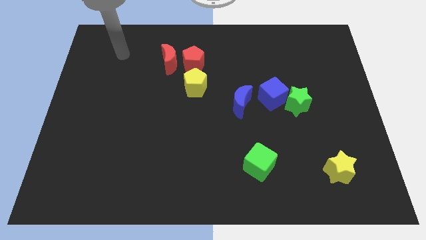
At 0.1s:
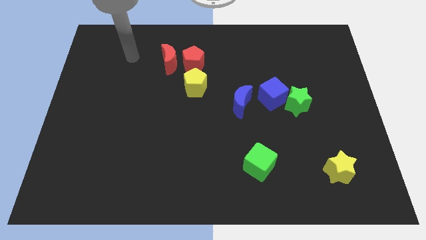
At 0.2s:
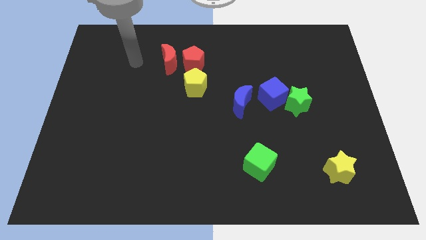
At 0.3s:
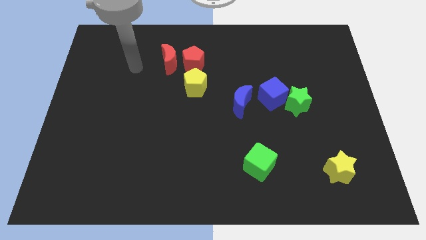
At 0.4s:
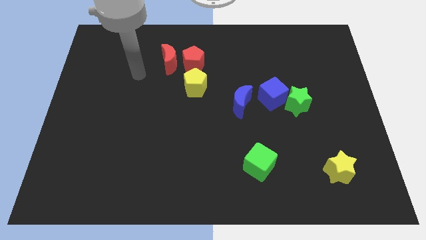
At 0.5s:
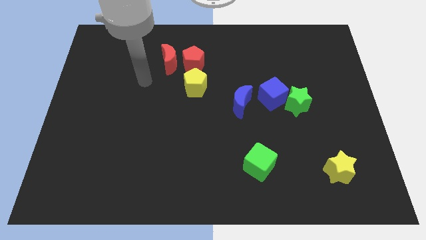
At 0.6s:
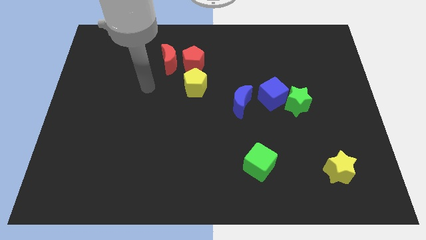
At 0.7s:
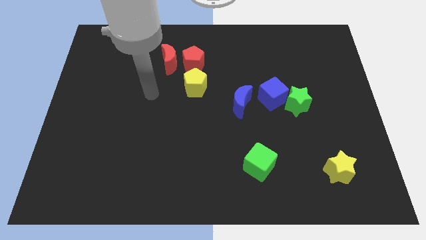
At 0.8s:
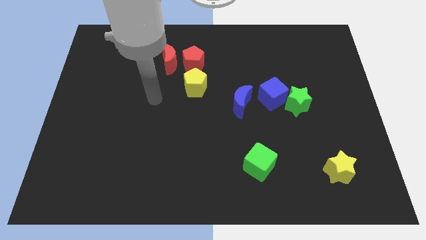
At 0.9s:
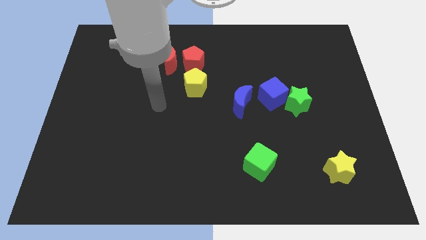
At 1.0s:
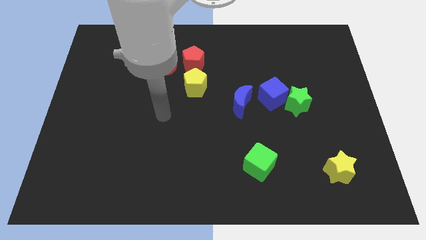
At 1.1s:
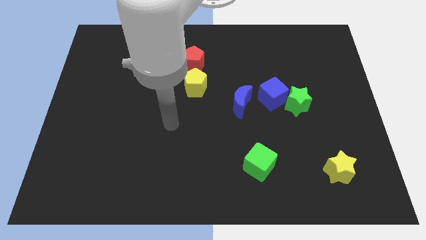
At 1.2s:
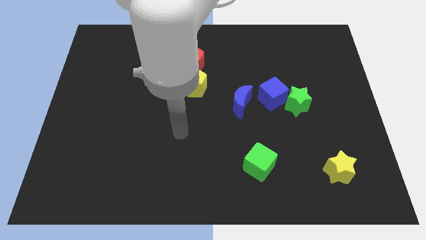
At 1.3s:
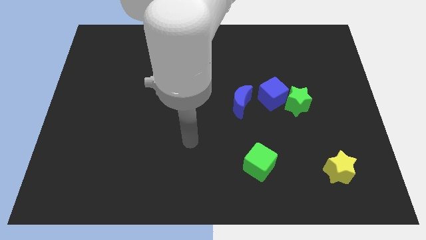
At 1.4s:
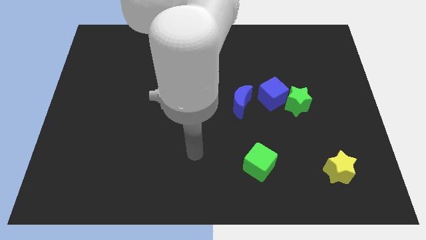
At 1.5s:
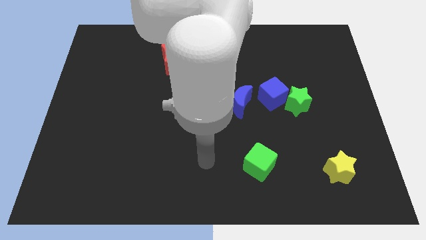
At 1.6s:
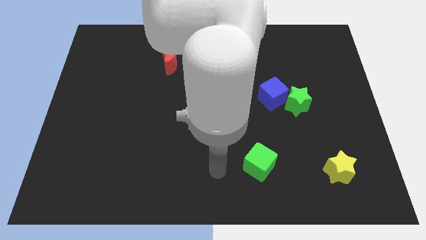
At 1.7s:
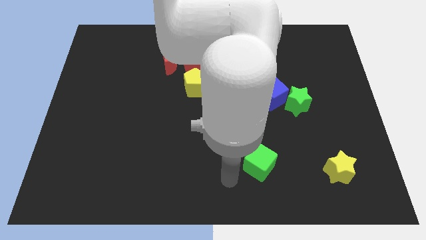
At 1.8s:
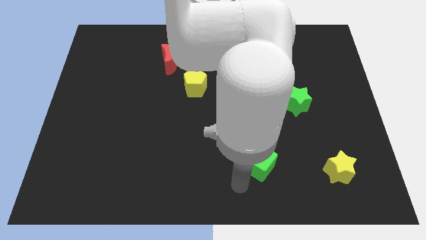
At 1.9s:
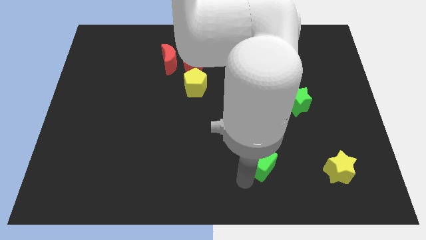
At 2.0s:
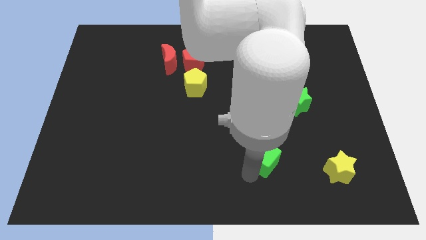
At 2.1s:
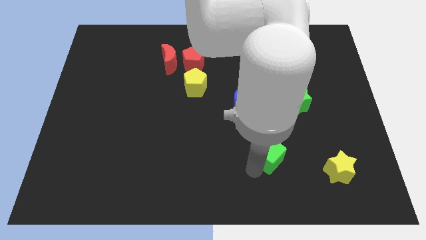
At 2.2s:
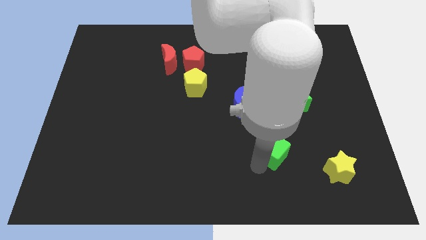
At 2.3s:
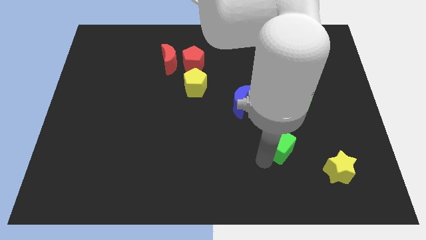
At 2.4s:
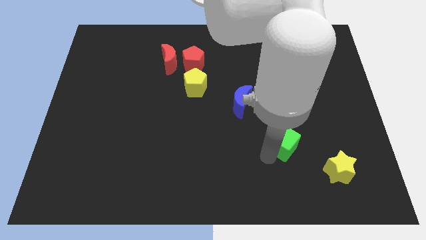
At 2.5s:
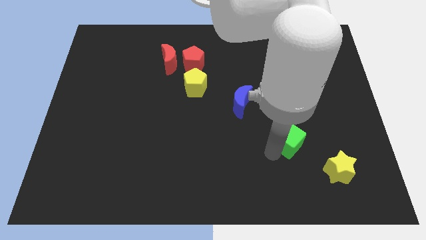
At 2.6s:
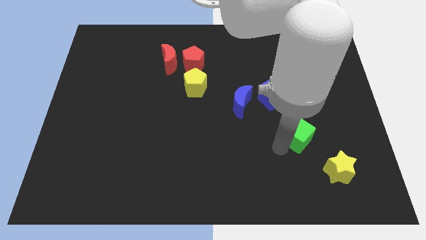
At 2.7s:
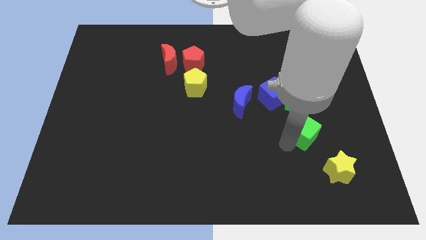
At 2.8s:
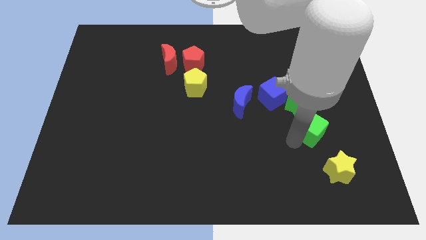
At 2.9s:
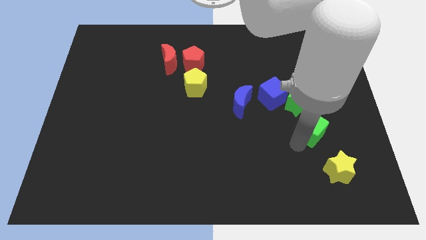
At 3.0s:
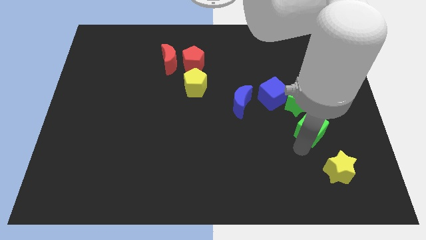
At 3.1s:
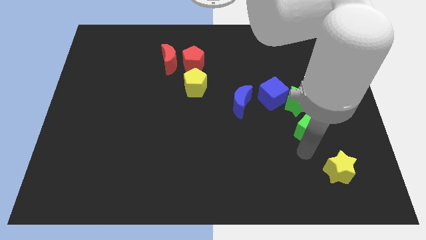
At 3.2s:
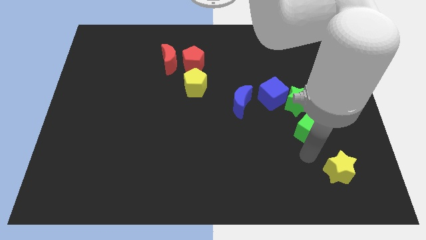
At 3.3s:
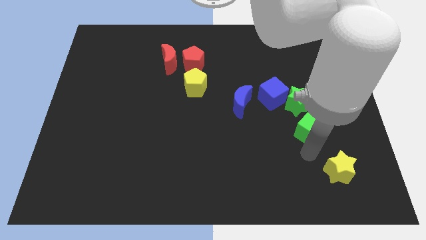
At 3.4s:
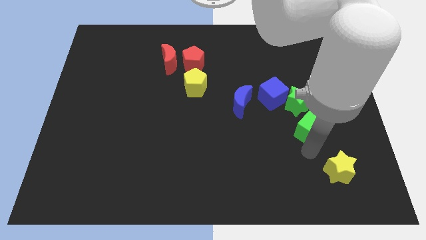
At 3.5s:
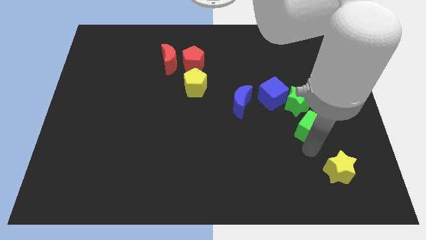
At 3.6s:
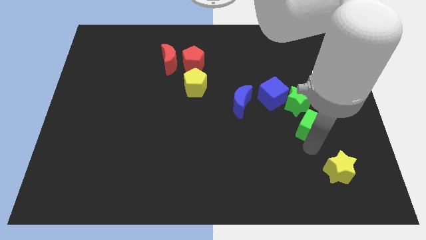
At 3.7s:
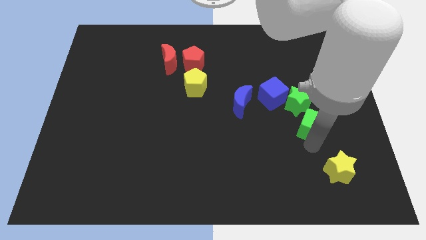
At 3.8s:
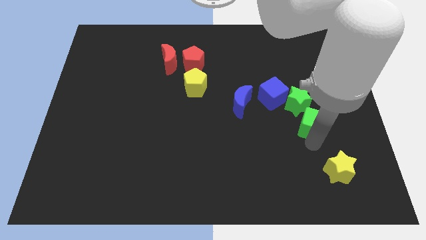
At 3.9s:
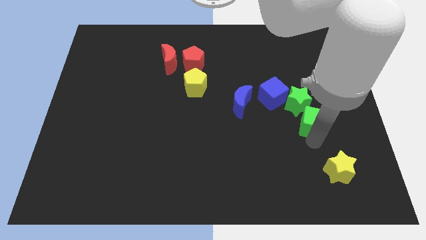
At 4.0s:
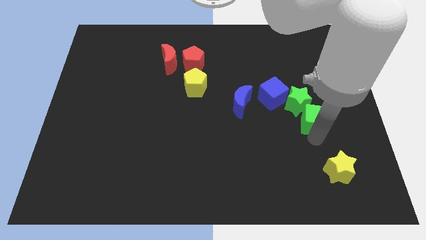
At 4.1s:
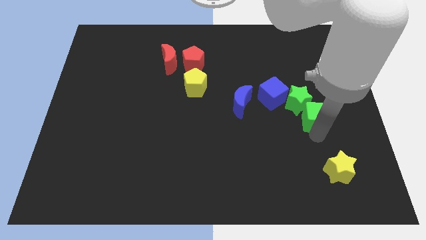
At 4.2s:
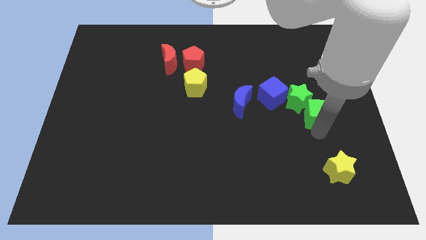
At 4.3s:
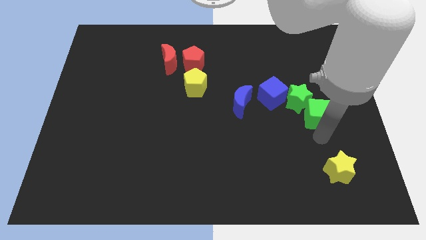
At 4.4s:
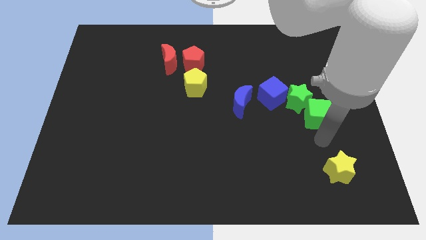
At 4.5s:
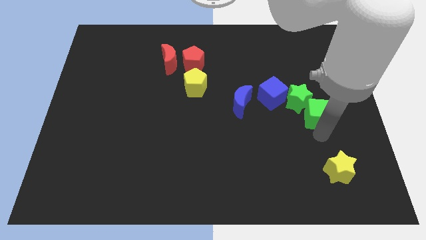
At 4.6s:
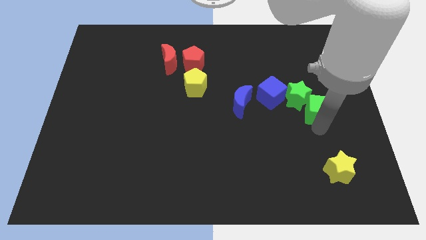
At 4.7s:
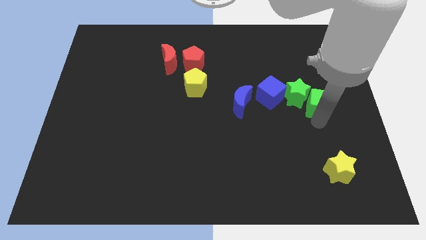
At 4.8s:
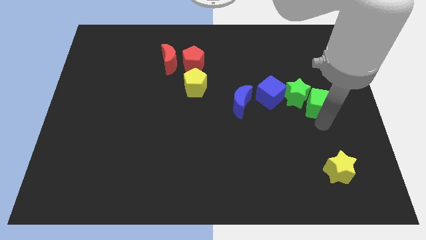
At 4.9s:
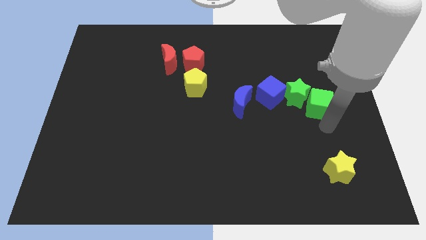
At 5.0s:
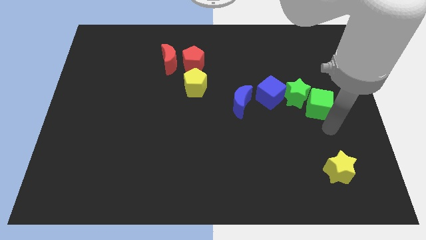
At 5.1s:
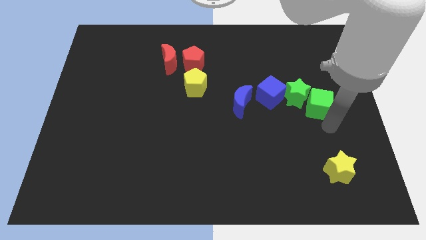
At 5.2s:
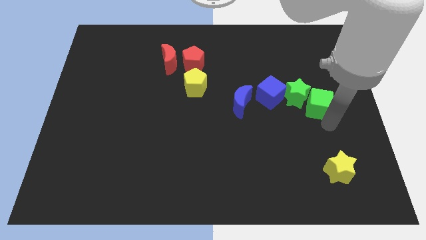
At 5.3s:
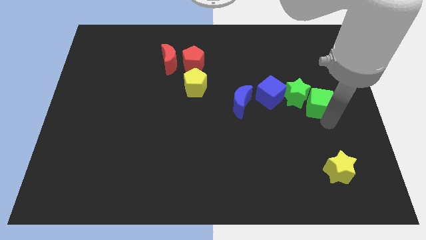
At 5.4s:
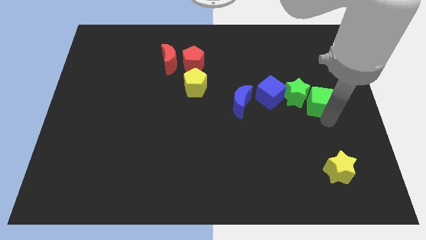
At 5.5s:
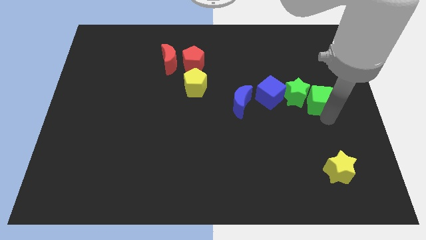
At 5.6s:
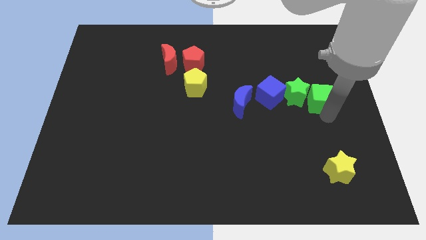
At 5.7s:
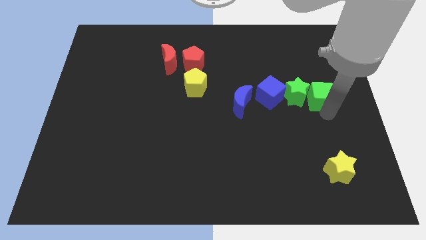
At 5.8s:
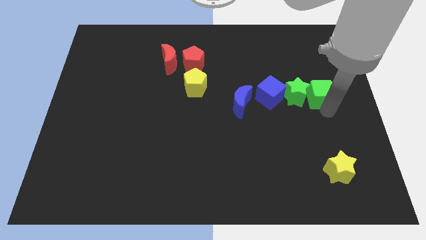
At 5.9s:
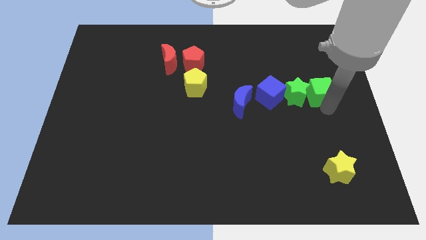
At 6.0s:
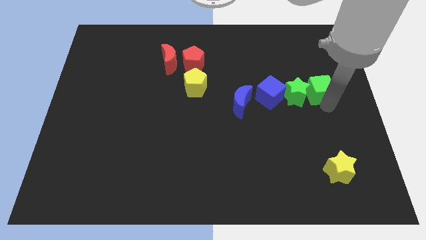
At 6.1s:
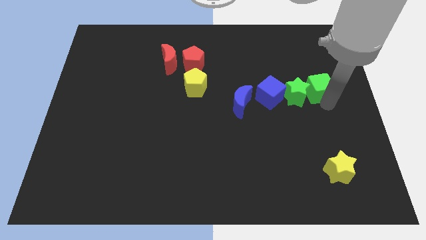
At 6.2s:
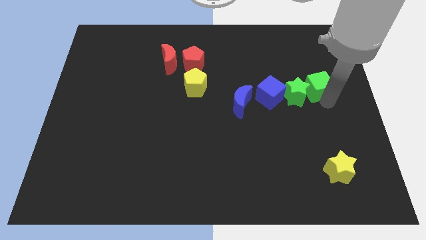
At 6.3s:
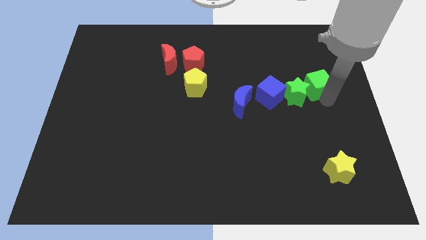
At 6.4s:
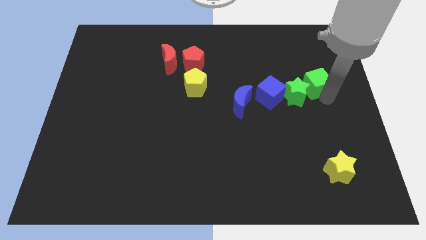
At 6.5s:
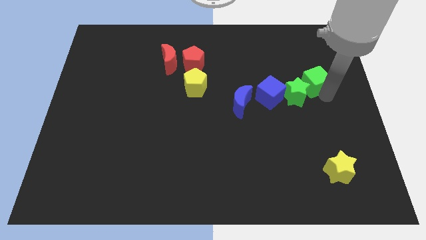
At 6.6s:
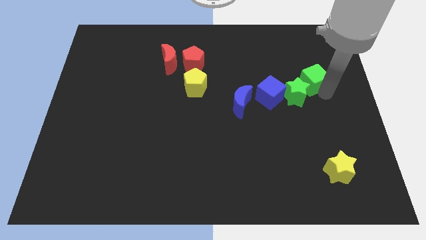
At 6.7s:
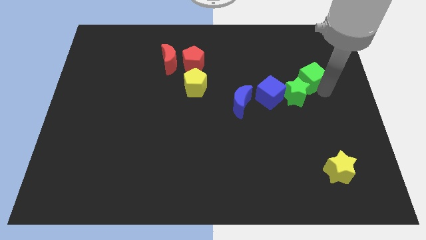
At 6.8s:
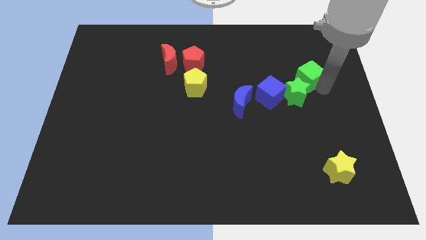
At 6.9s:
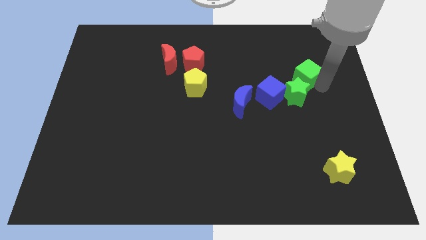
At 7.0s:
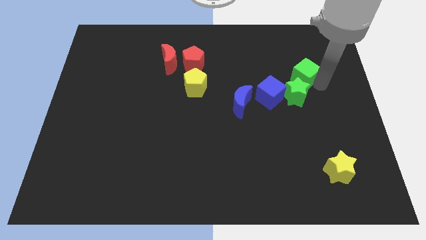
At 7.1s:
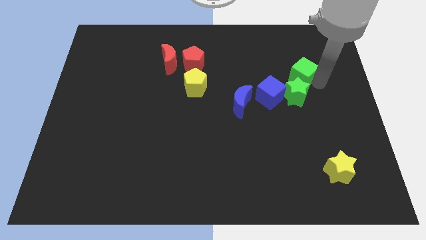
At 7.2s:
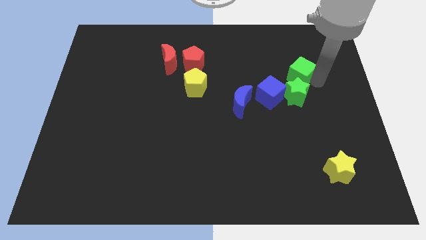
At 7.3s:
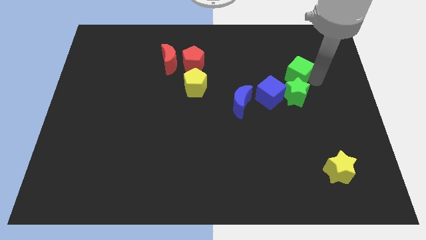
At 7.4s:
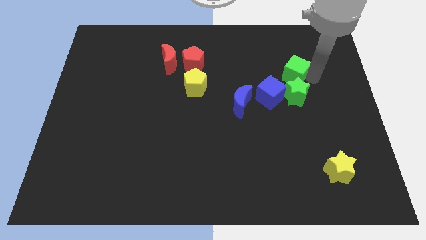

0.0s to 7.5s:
push the green cube upwards

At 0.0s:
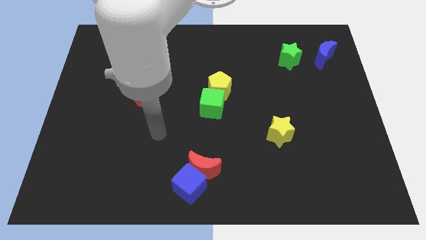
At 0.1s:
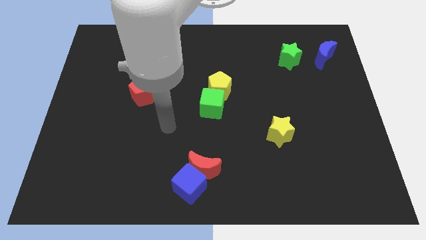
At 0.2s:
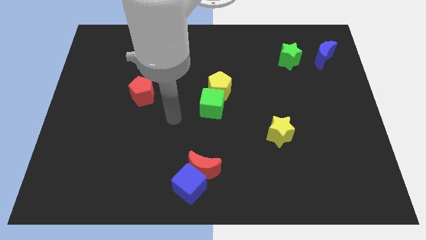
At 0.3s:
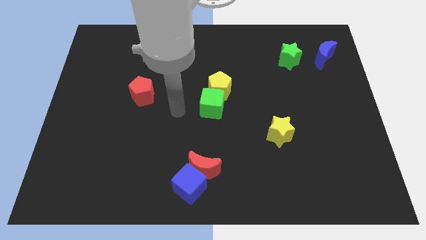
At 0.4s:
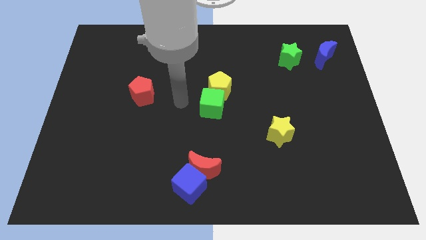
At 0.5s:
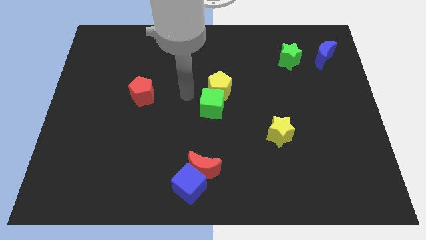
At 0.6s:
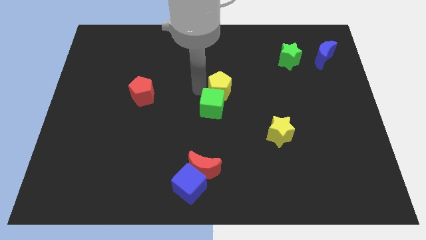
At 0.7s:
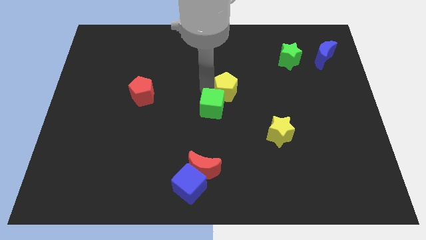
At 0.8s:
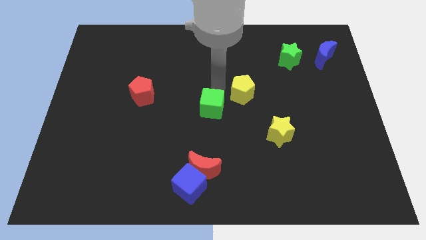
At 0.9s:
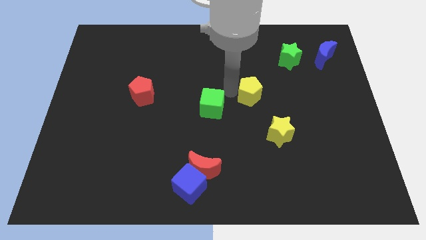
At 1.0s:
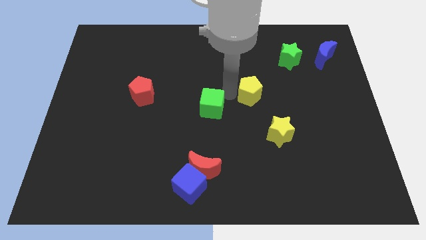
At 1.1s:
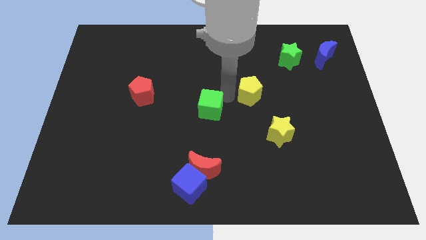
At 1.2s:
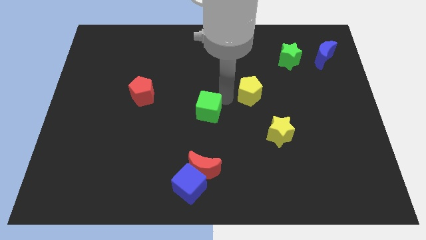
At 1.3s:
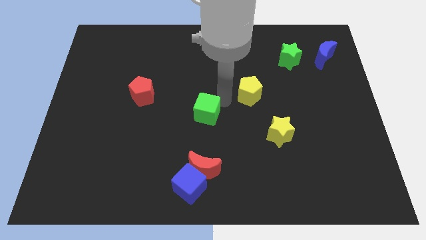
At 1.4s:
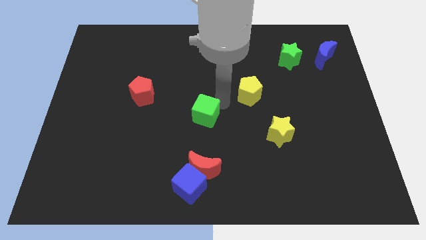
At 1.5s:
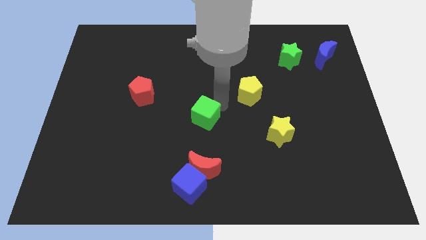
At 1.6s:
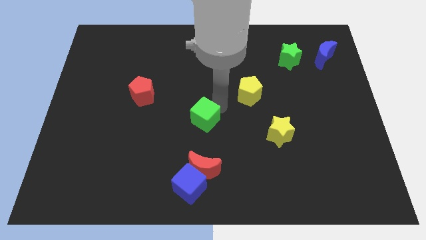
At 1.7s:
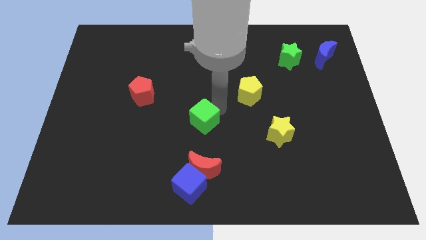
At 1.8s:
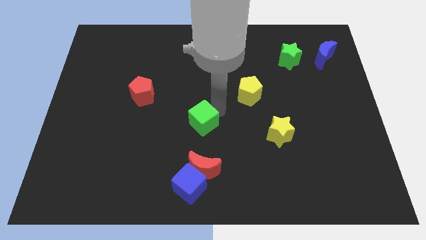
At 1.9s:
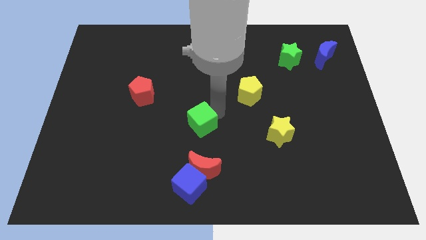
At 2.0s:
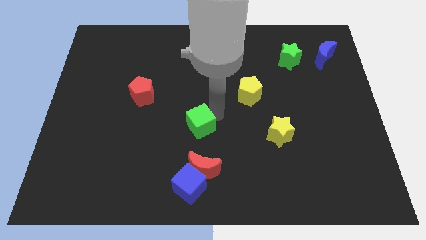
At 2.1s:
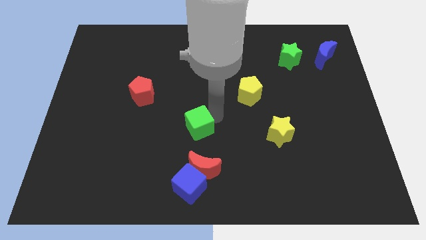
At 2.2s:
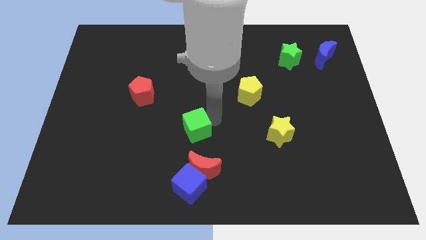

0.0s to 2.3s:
slightly move the green cube downwards and to the left
